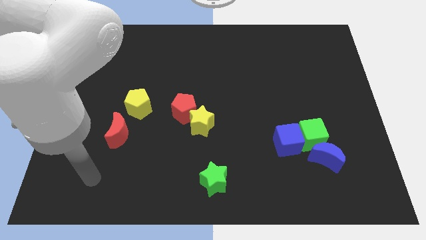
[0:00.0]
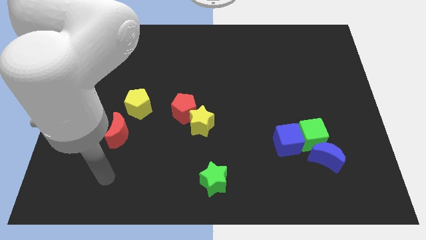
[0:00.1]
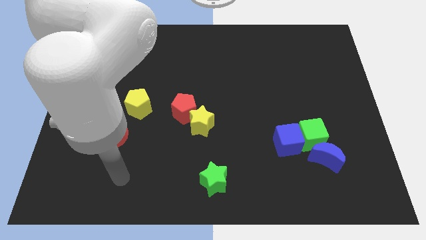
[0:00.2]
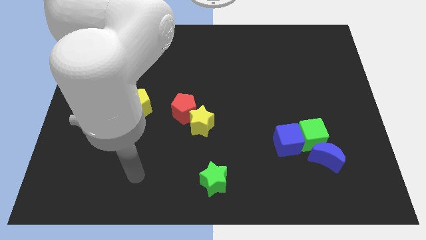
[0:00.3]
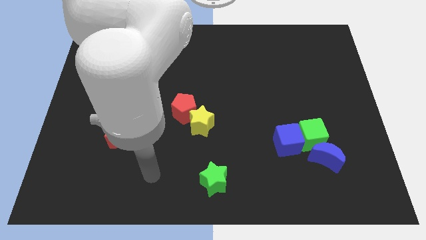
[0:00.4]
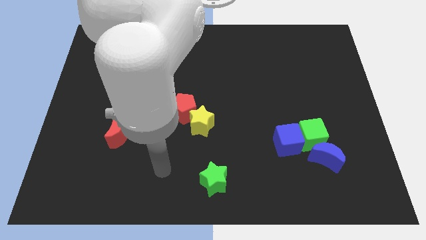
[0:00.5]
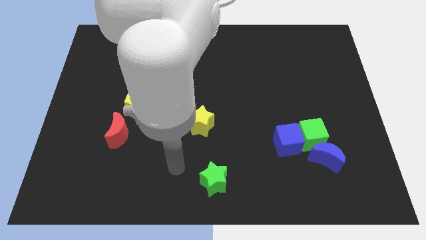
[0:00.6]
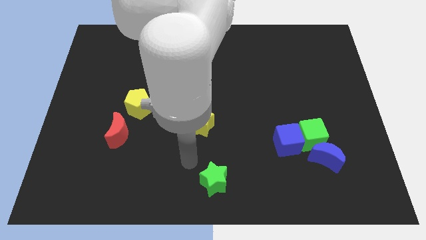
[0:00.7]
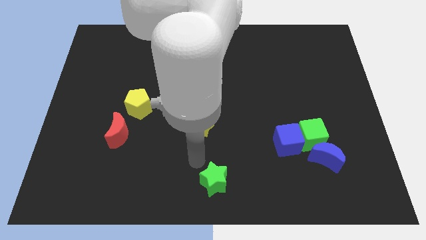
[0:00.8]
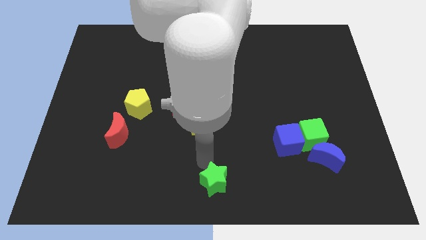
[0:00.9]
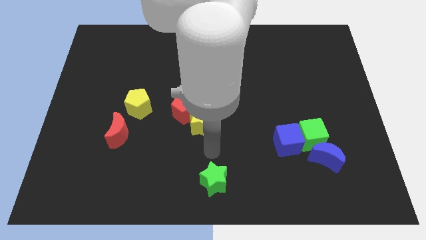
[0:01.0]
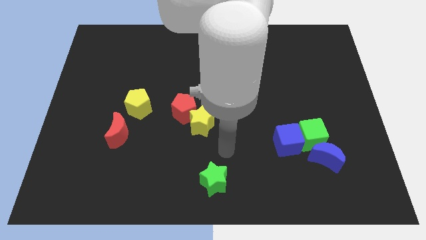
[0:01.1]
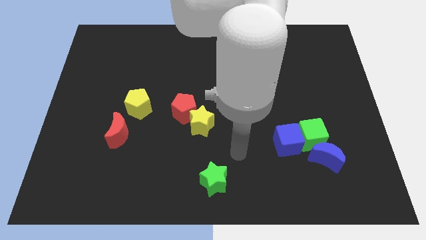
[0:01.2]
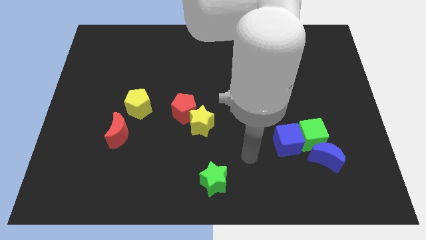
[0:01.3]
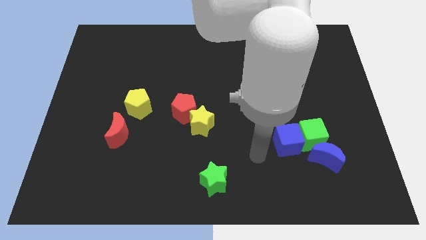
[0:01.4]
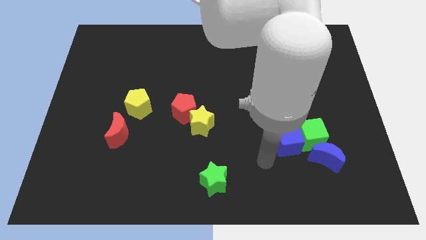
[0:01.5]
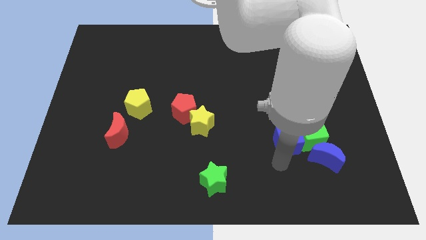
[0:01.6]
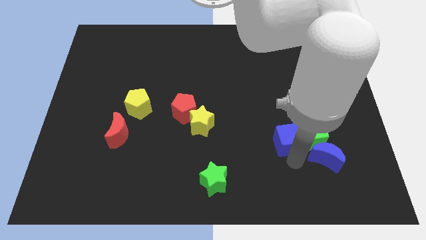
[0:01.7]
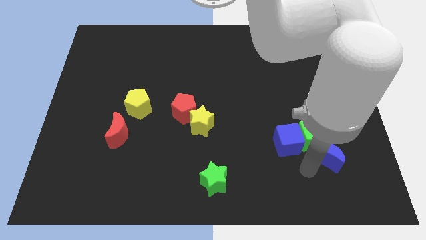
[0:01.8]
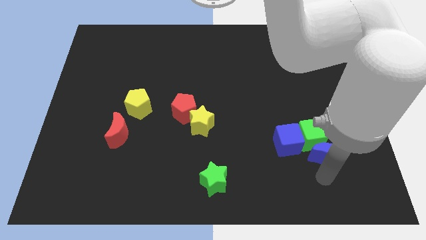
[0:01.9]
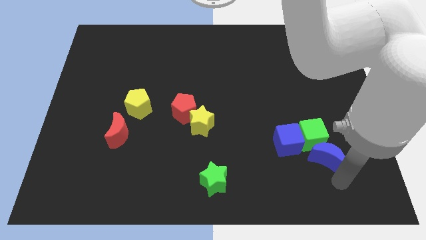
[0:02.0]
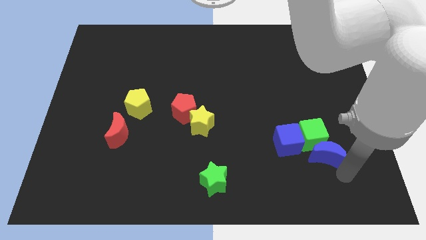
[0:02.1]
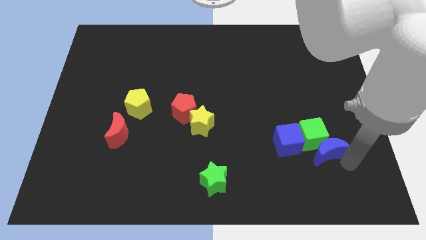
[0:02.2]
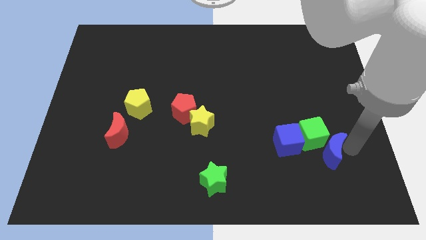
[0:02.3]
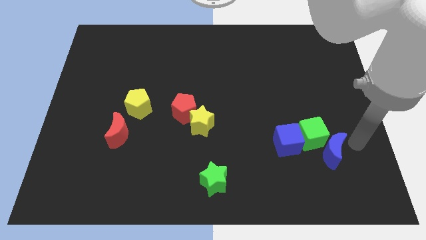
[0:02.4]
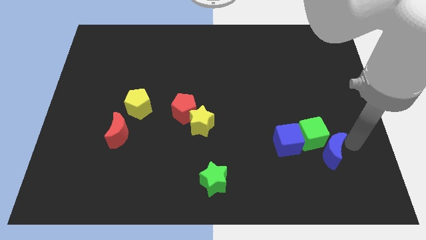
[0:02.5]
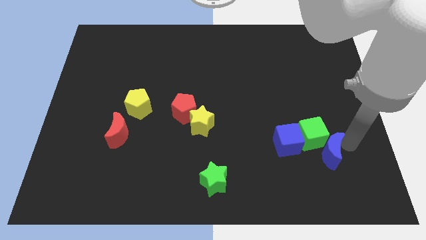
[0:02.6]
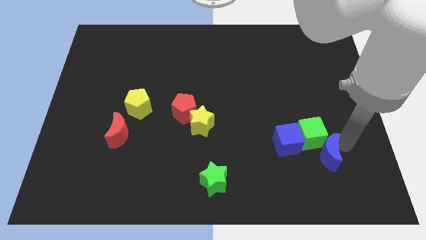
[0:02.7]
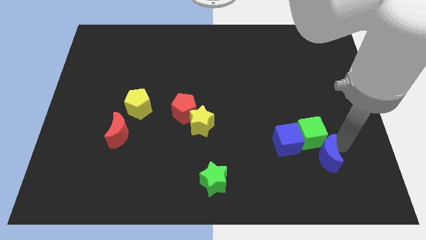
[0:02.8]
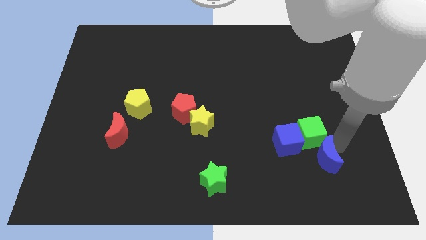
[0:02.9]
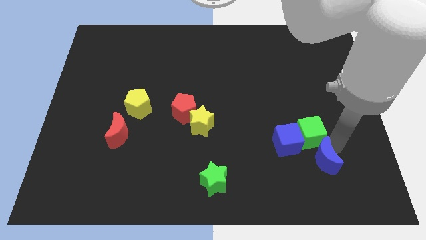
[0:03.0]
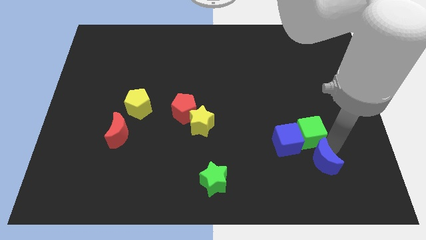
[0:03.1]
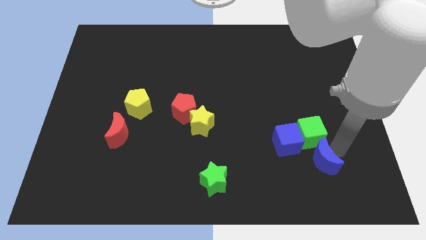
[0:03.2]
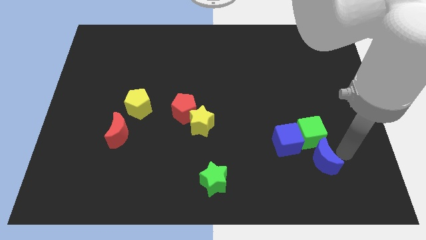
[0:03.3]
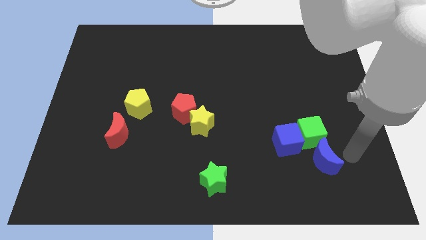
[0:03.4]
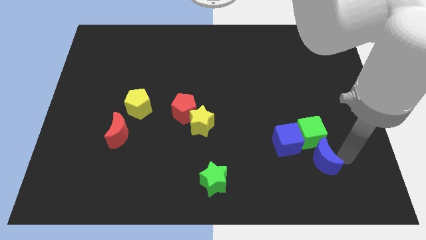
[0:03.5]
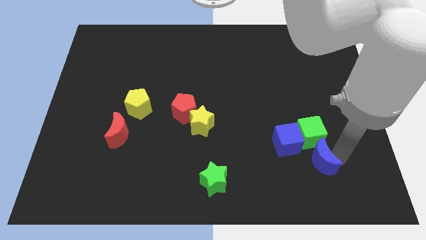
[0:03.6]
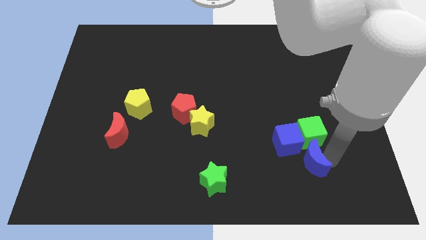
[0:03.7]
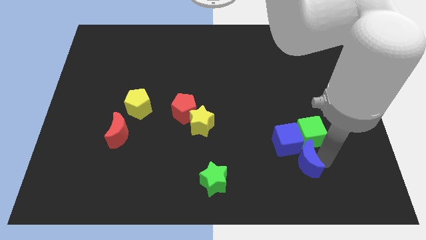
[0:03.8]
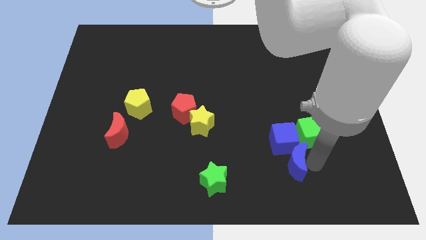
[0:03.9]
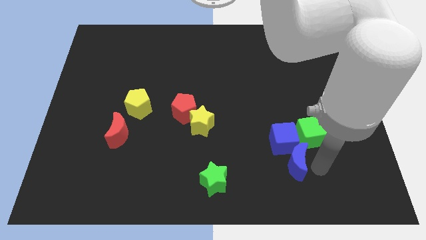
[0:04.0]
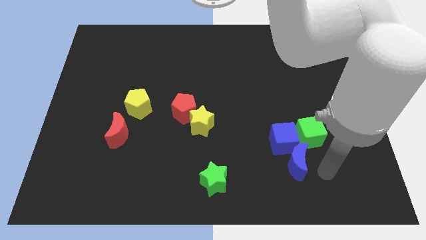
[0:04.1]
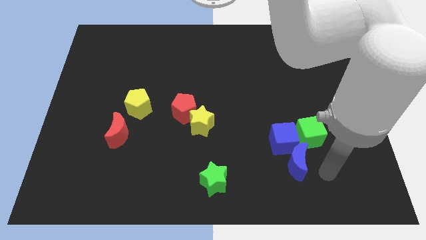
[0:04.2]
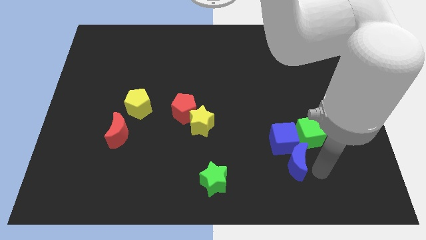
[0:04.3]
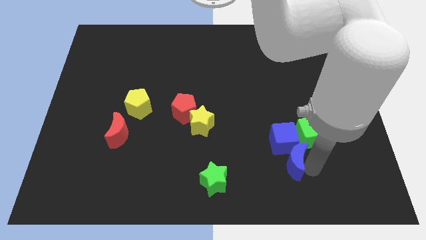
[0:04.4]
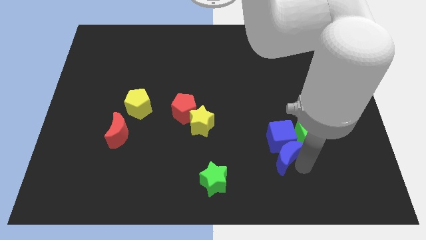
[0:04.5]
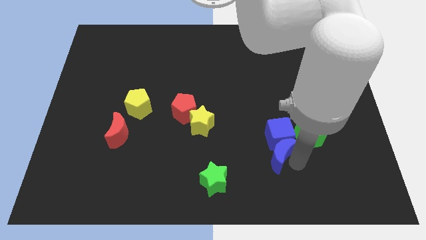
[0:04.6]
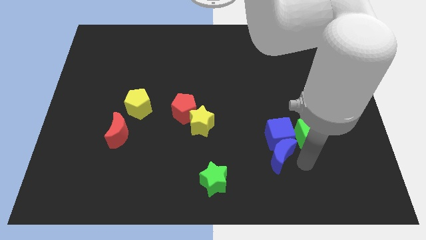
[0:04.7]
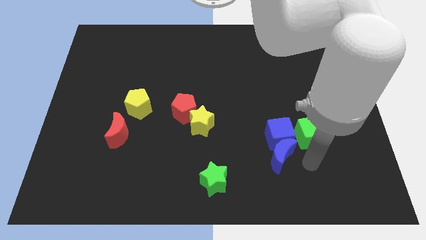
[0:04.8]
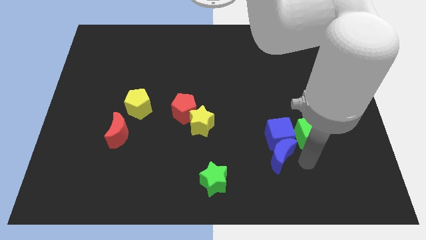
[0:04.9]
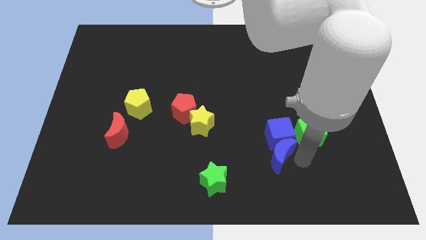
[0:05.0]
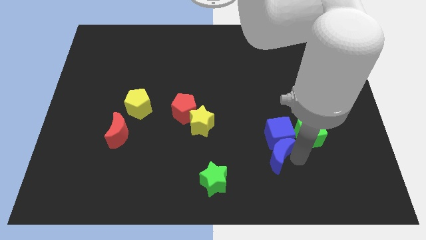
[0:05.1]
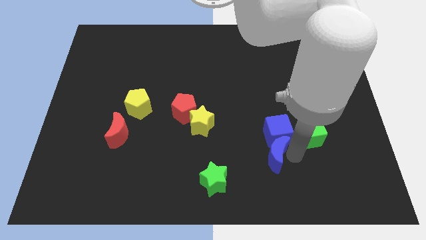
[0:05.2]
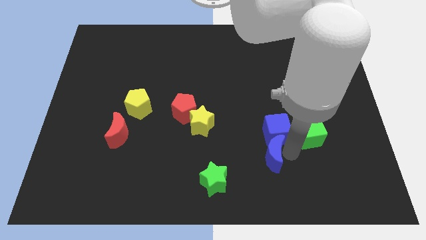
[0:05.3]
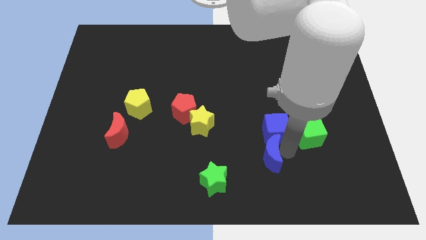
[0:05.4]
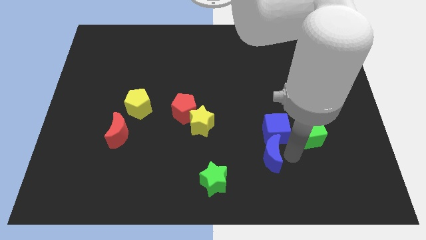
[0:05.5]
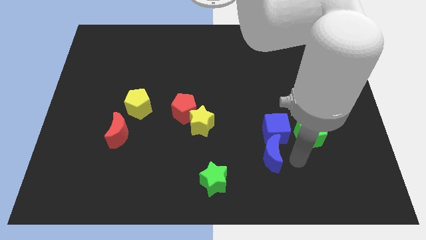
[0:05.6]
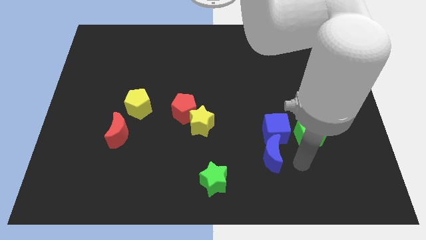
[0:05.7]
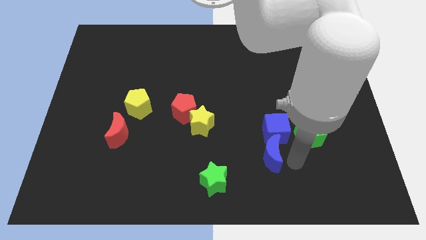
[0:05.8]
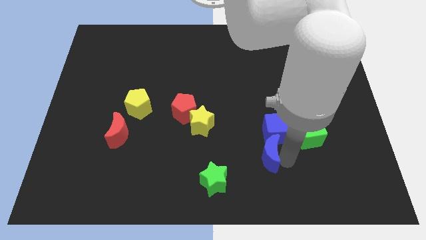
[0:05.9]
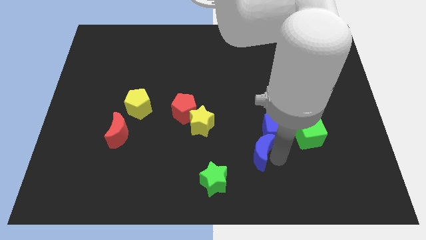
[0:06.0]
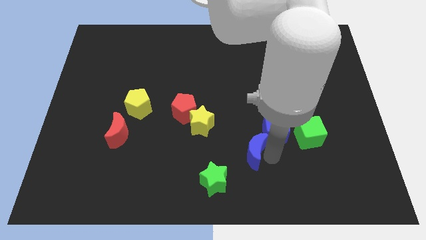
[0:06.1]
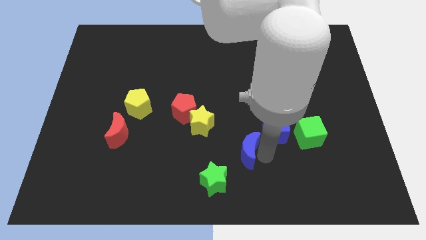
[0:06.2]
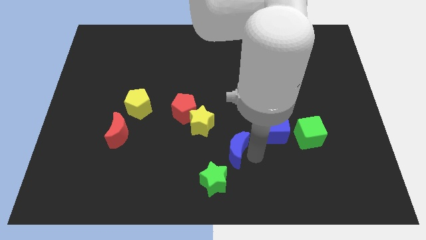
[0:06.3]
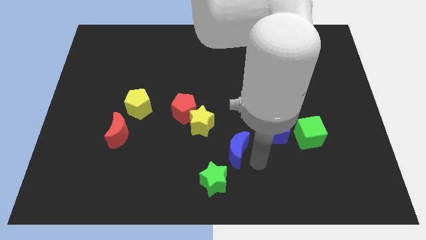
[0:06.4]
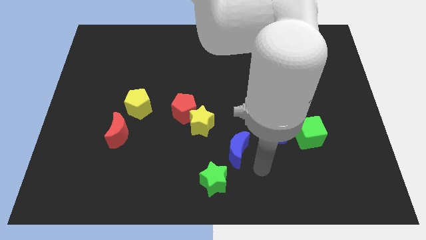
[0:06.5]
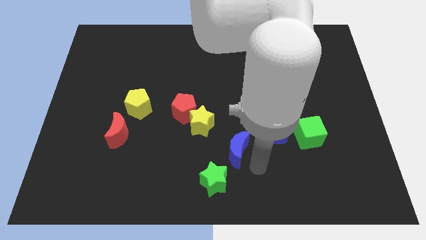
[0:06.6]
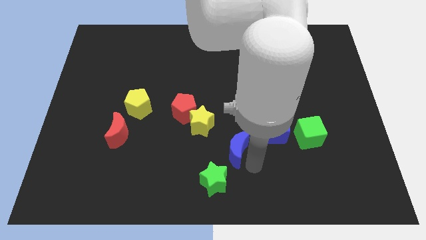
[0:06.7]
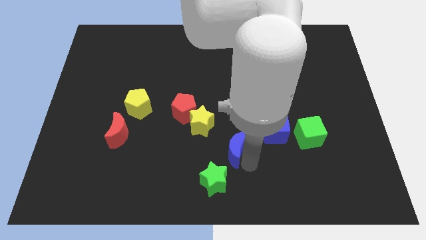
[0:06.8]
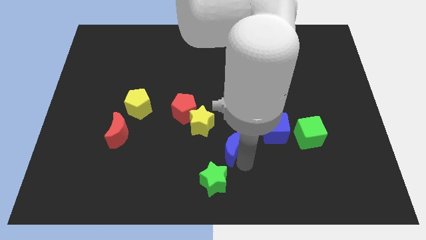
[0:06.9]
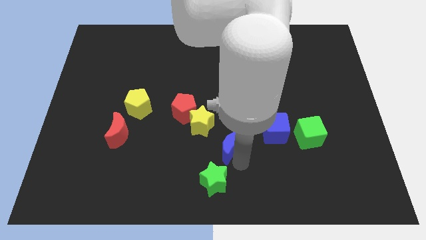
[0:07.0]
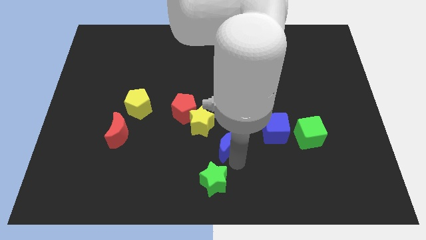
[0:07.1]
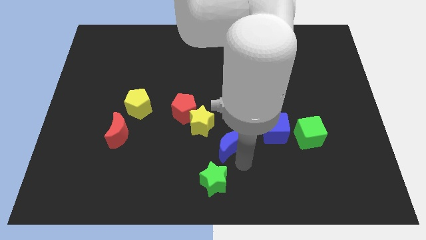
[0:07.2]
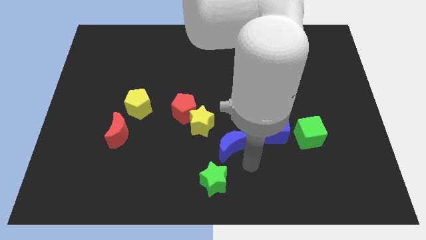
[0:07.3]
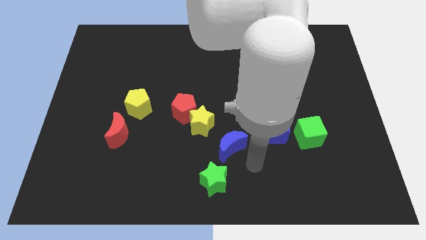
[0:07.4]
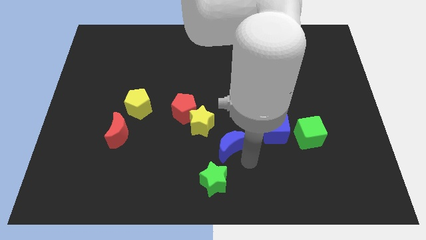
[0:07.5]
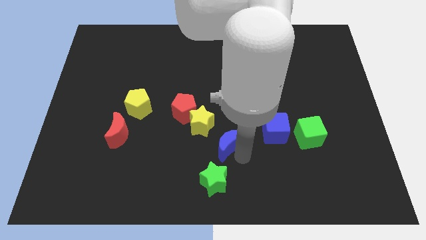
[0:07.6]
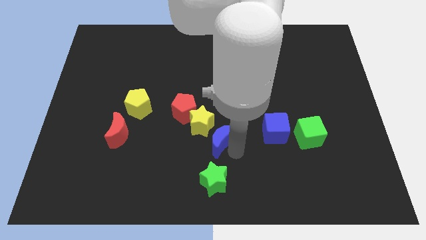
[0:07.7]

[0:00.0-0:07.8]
slide the blue moon to the bottom right of the red pentagon
